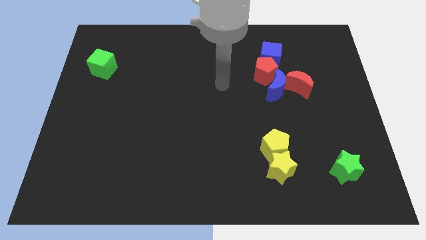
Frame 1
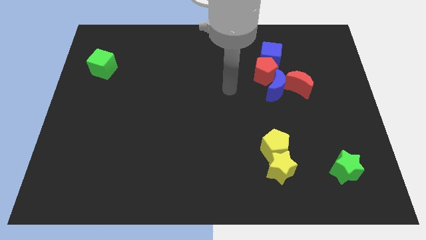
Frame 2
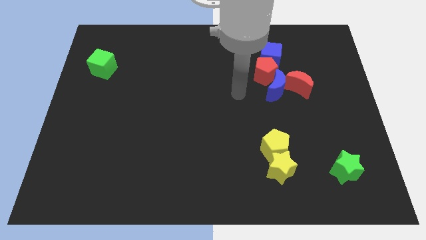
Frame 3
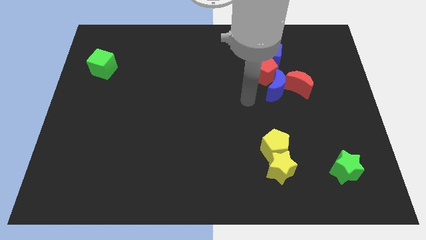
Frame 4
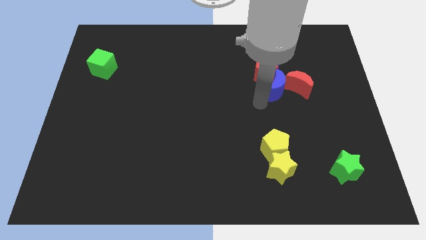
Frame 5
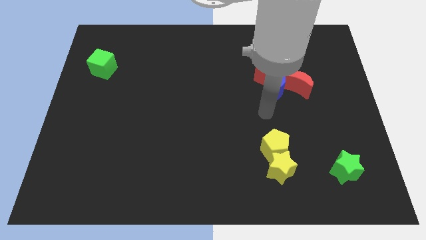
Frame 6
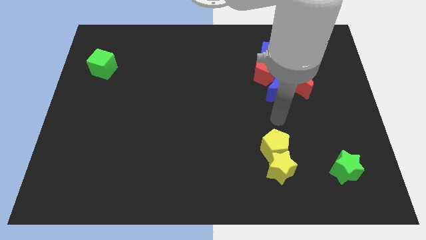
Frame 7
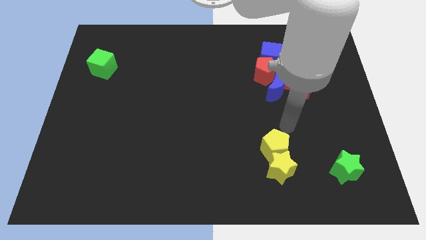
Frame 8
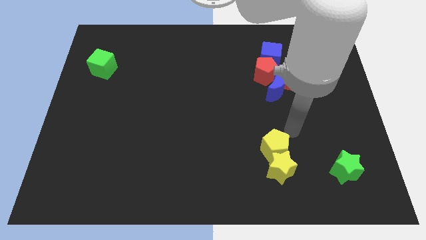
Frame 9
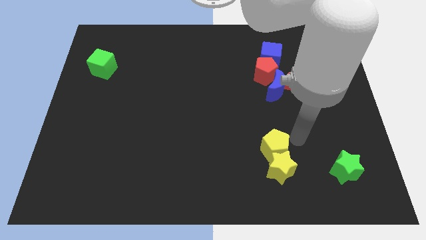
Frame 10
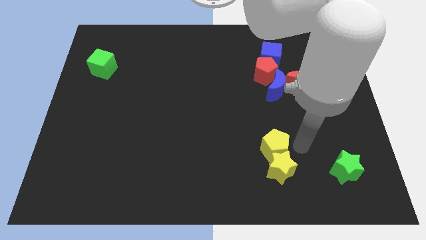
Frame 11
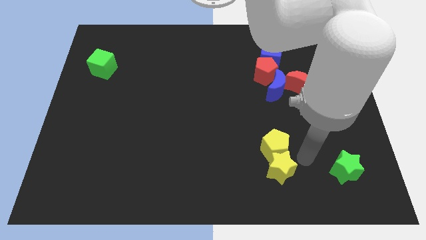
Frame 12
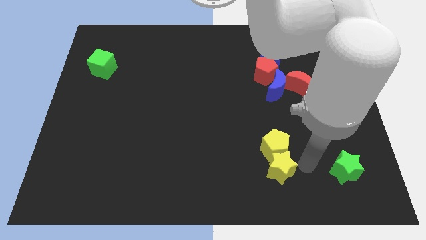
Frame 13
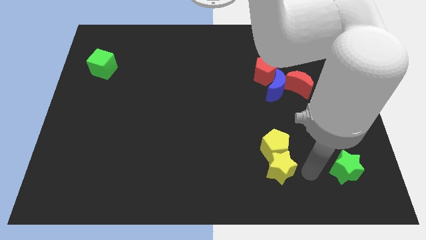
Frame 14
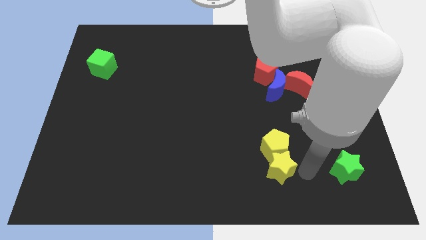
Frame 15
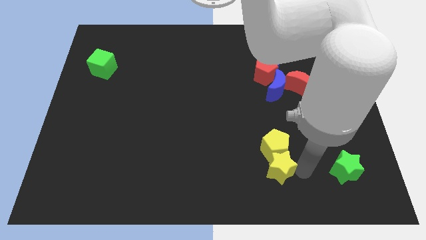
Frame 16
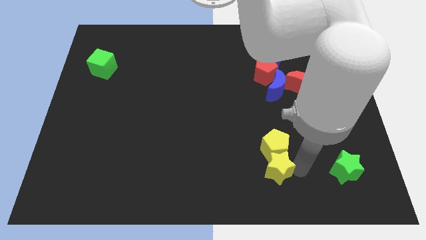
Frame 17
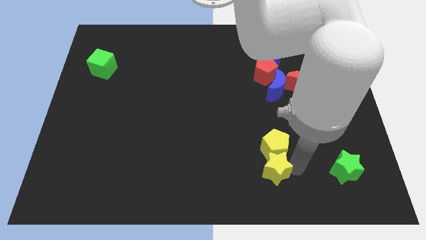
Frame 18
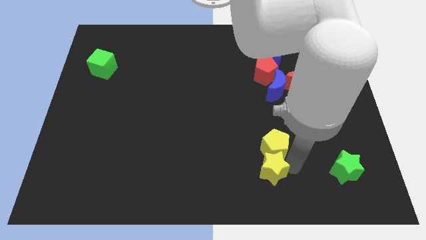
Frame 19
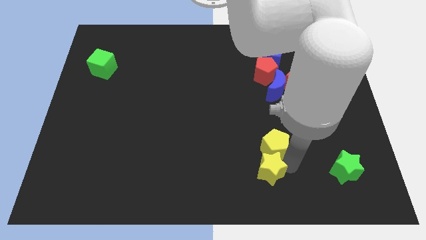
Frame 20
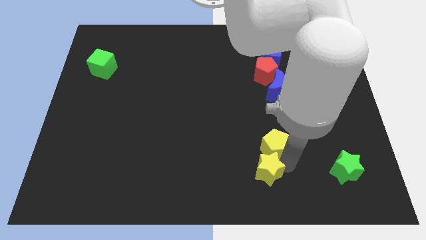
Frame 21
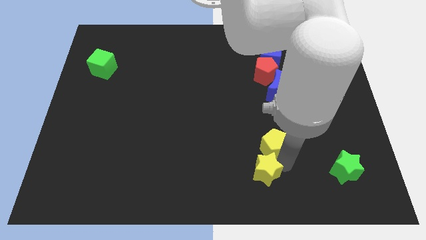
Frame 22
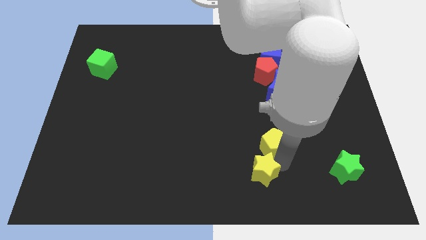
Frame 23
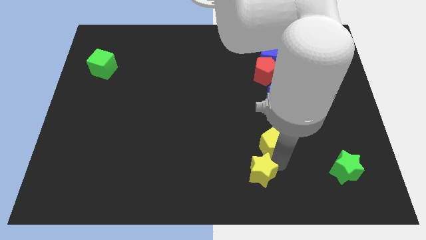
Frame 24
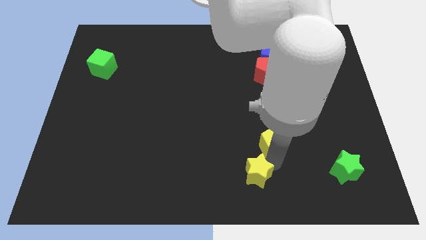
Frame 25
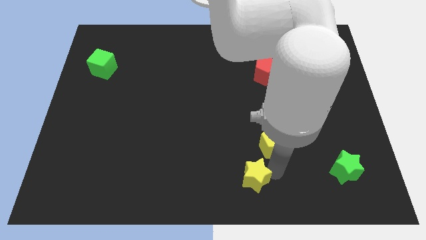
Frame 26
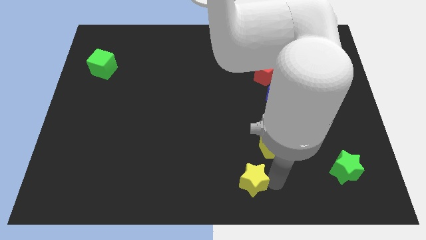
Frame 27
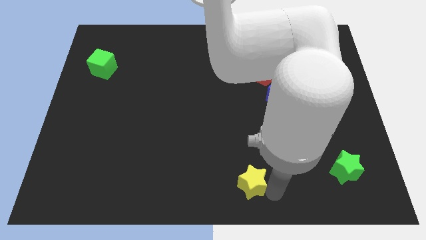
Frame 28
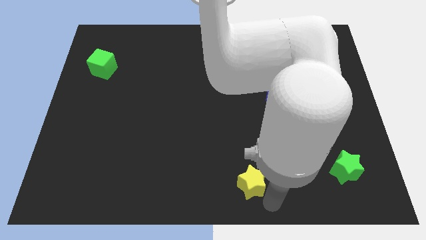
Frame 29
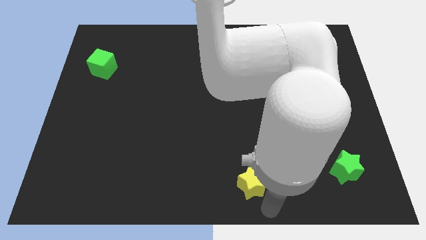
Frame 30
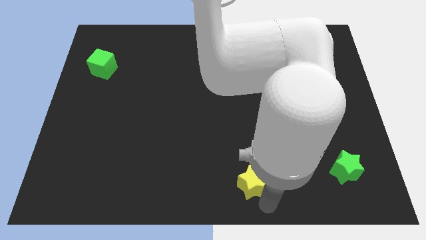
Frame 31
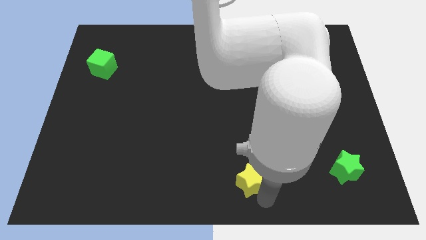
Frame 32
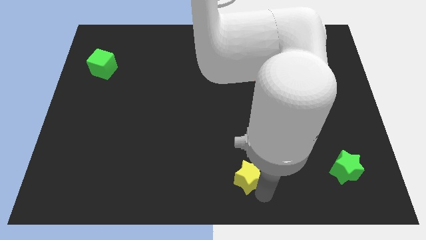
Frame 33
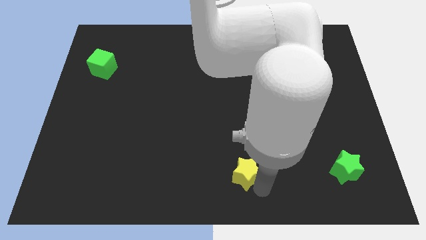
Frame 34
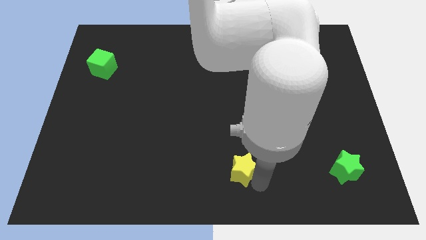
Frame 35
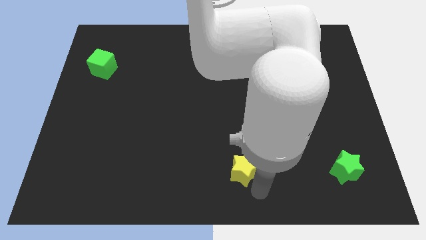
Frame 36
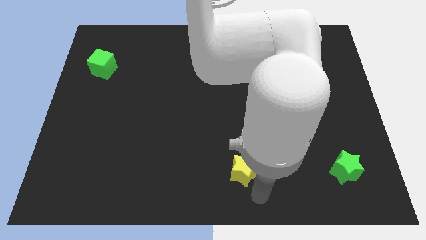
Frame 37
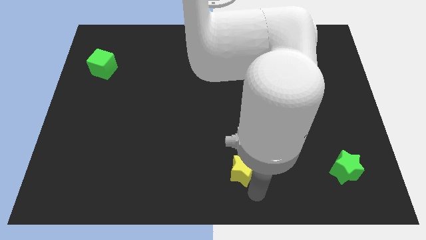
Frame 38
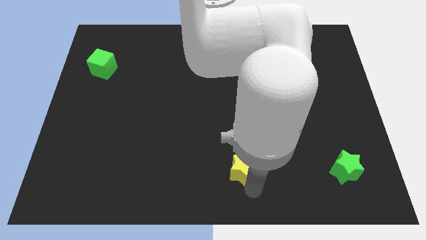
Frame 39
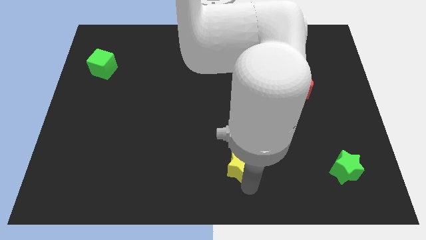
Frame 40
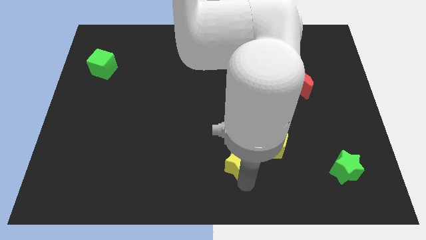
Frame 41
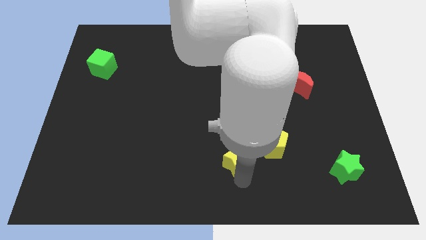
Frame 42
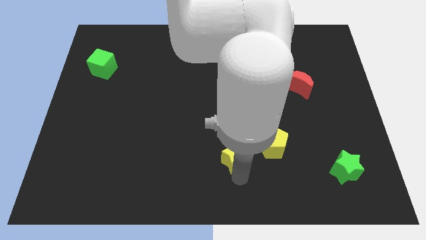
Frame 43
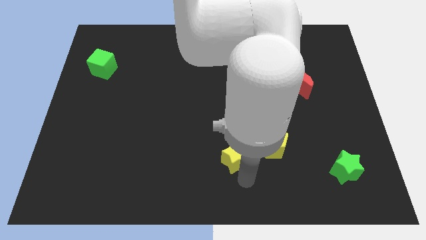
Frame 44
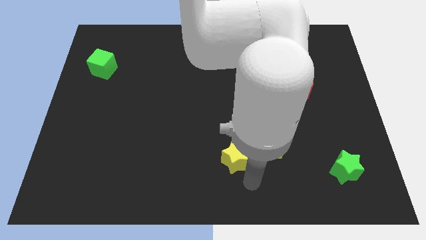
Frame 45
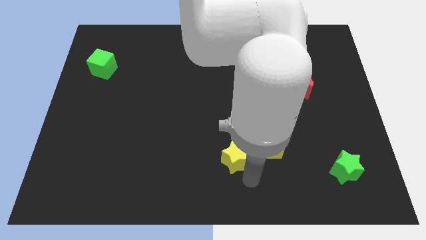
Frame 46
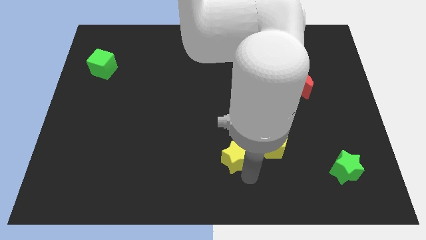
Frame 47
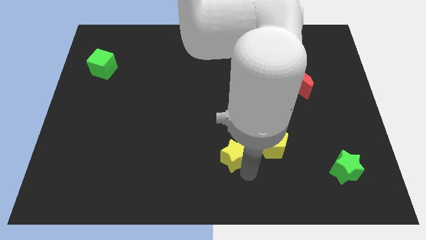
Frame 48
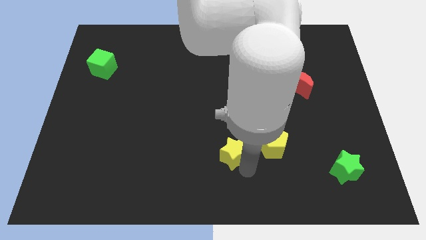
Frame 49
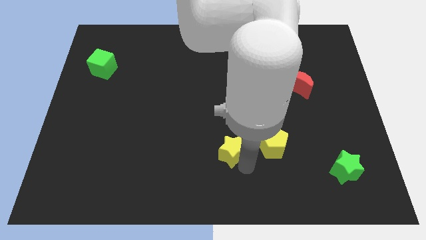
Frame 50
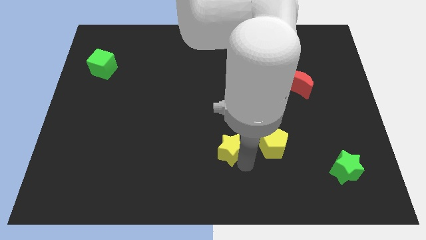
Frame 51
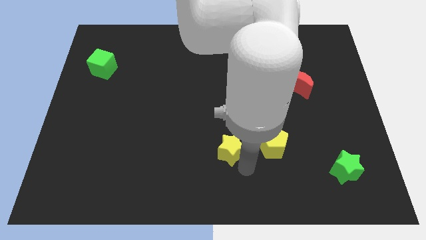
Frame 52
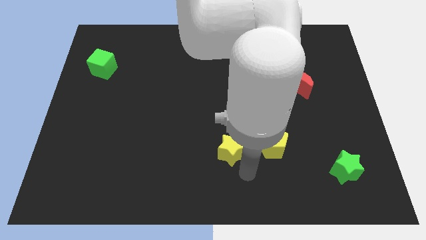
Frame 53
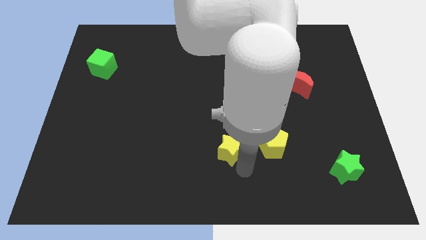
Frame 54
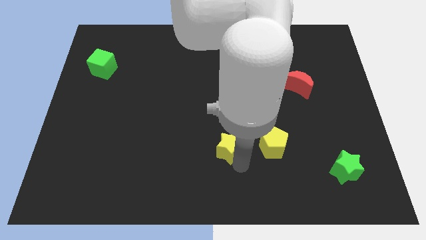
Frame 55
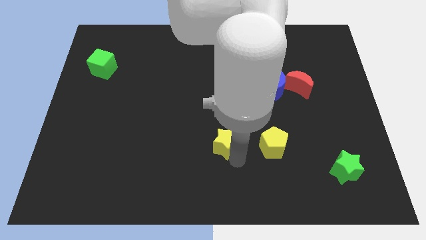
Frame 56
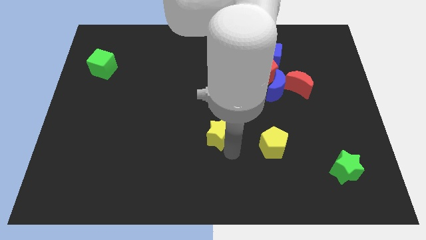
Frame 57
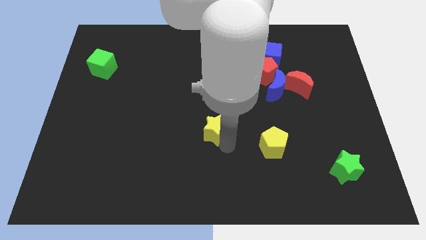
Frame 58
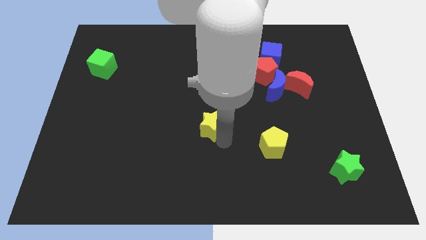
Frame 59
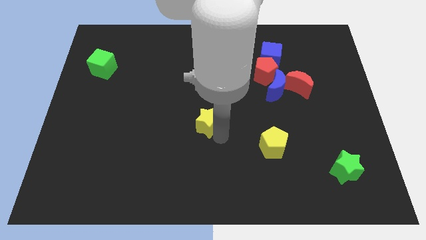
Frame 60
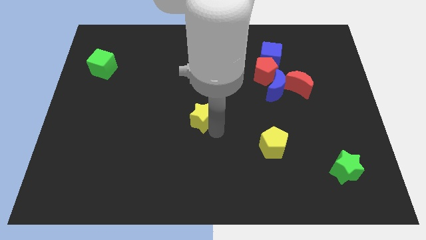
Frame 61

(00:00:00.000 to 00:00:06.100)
slide the yellow star upwards and then to the left

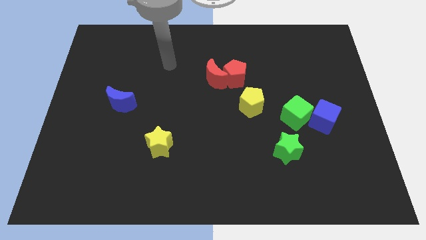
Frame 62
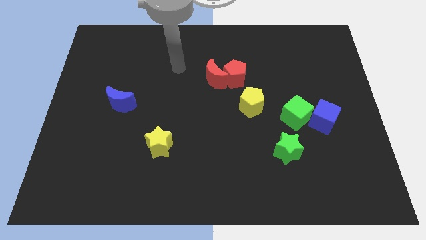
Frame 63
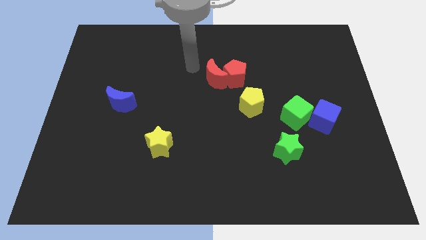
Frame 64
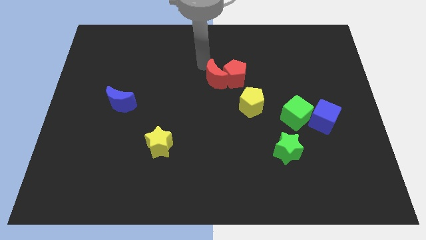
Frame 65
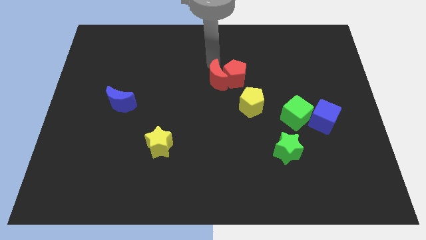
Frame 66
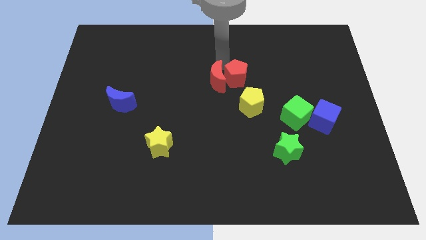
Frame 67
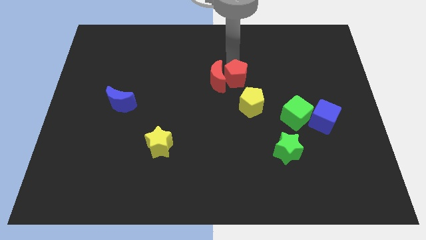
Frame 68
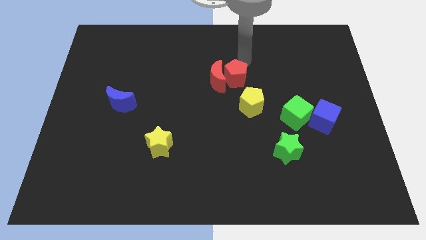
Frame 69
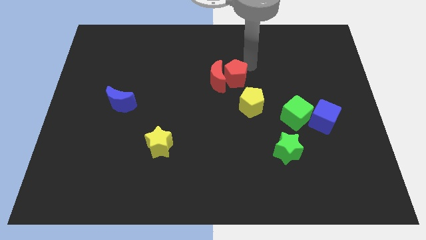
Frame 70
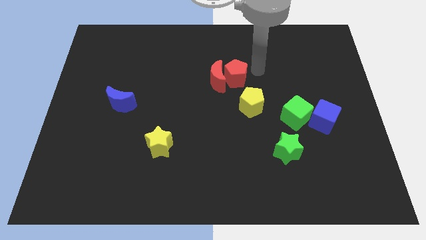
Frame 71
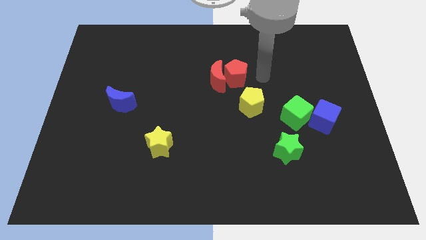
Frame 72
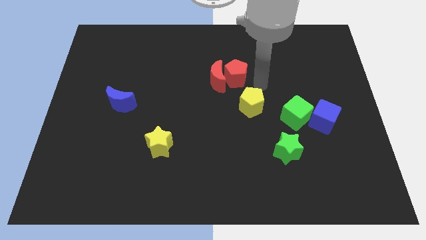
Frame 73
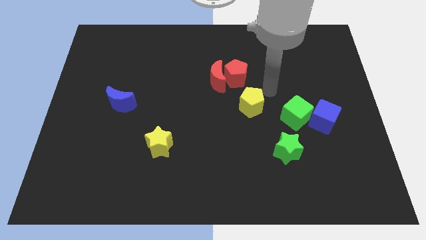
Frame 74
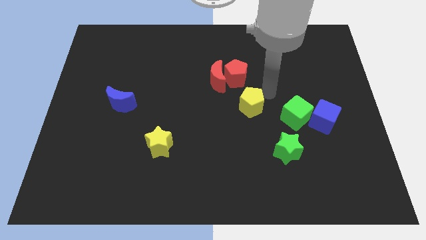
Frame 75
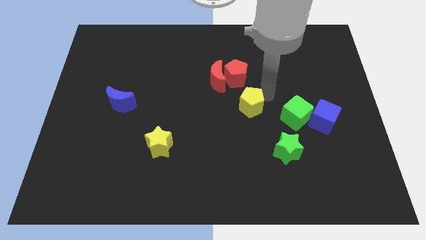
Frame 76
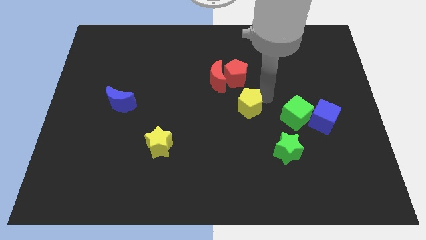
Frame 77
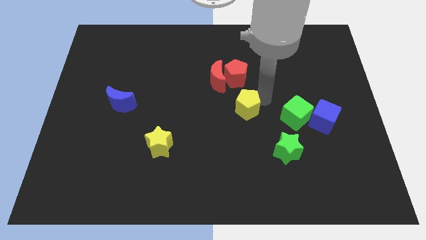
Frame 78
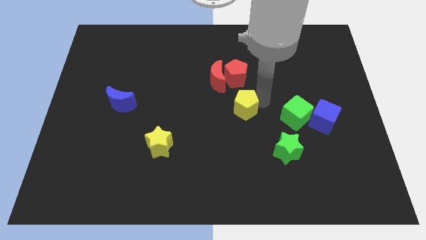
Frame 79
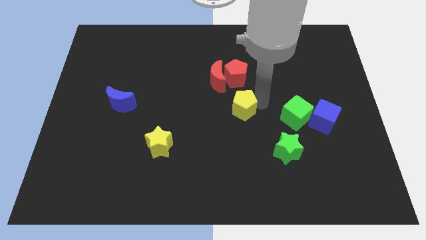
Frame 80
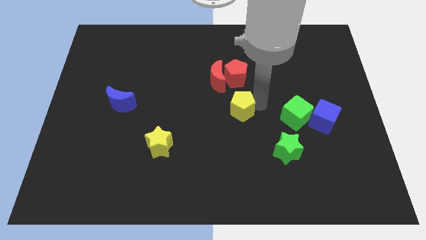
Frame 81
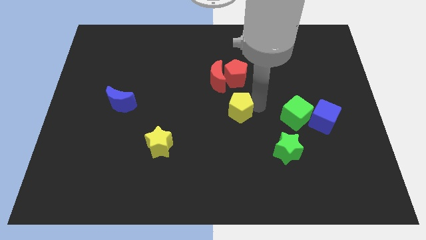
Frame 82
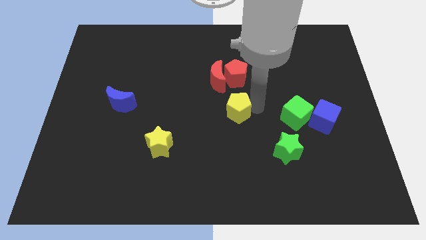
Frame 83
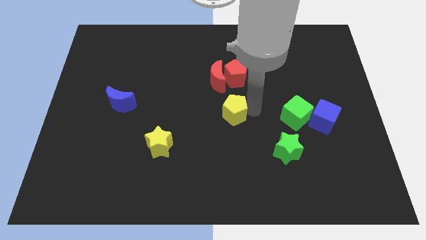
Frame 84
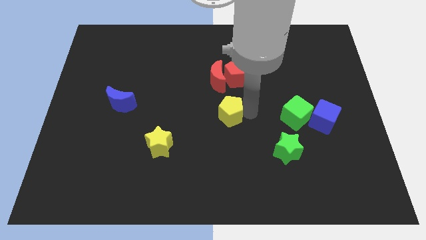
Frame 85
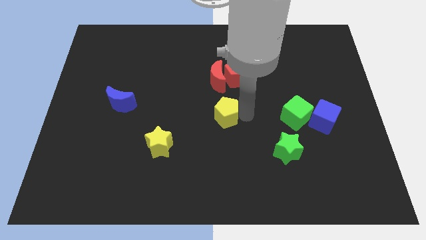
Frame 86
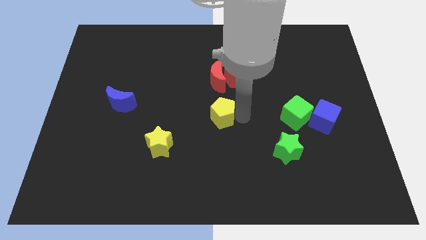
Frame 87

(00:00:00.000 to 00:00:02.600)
slide the yellow pentagon a little down and to the left
